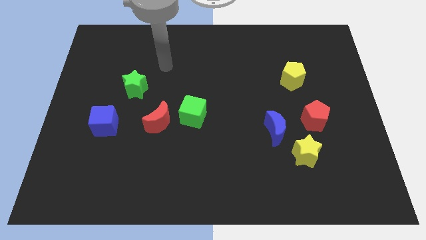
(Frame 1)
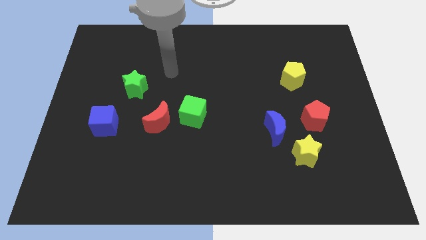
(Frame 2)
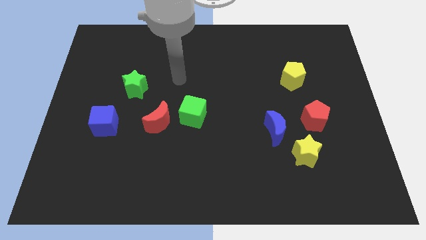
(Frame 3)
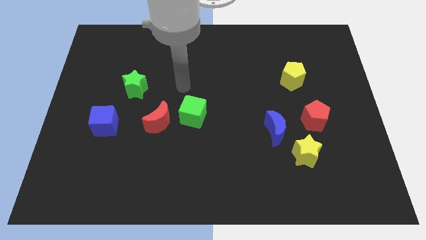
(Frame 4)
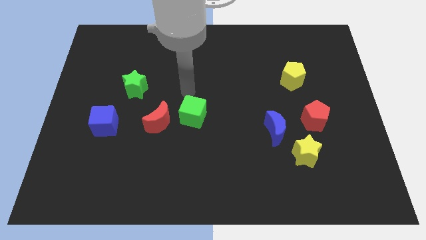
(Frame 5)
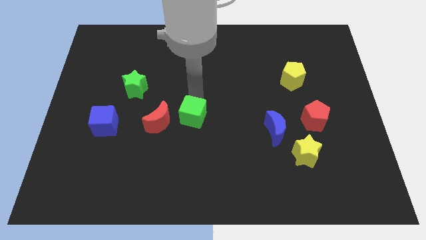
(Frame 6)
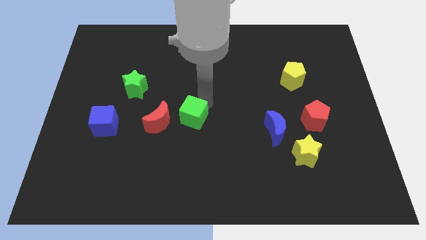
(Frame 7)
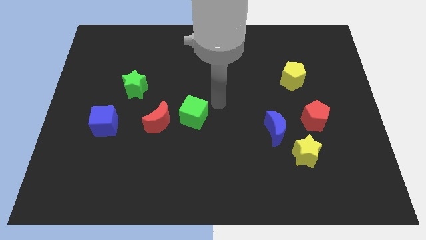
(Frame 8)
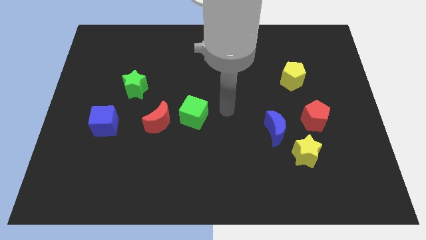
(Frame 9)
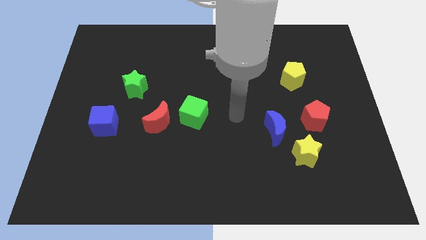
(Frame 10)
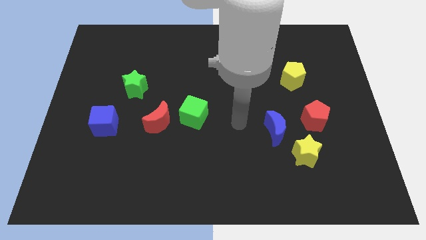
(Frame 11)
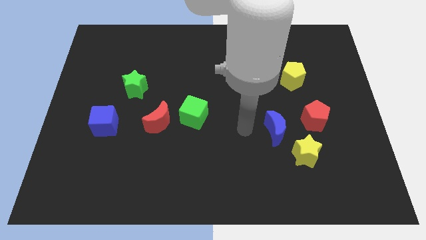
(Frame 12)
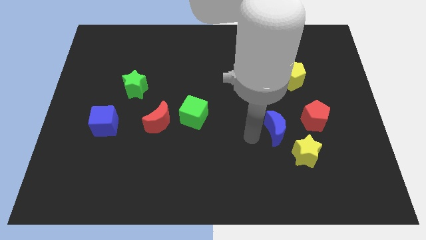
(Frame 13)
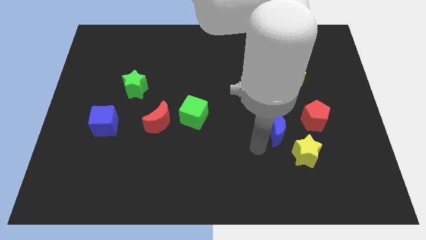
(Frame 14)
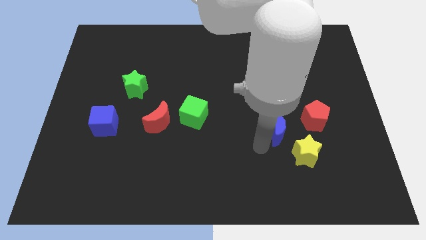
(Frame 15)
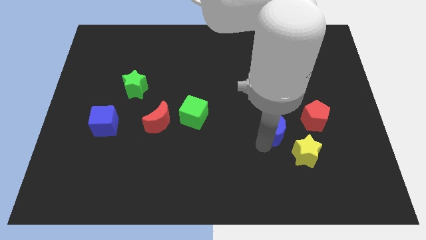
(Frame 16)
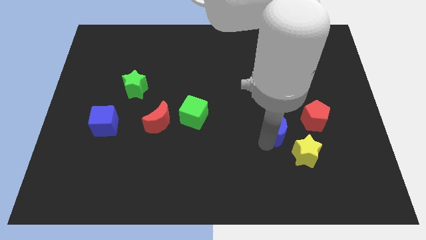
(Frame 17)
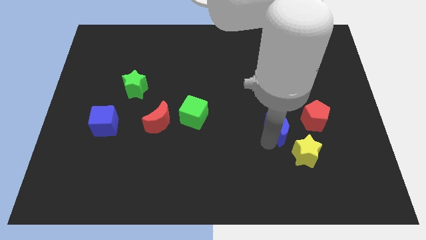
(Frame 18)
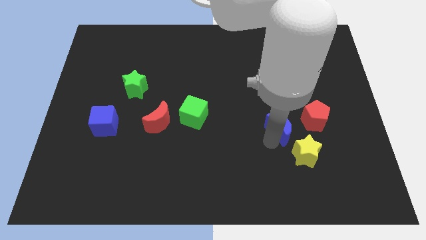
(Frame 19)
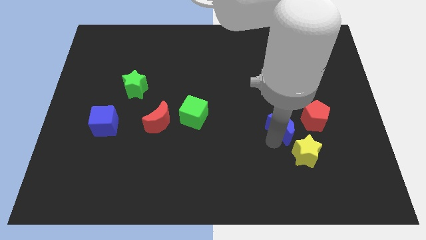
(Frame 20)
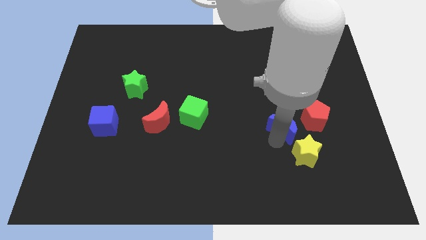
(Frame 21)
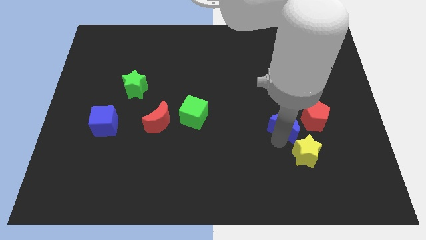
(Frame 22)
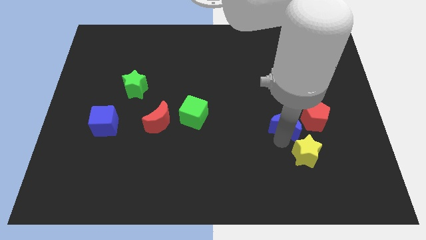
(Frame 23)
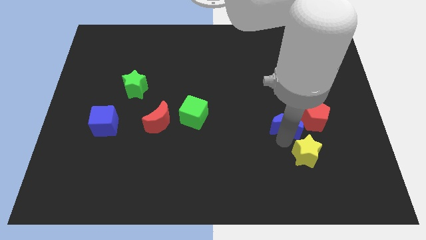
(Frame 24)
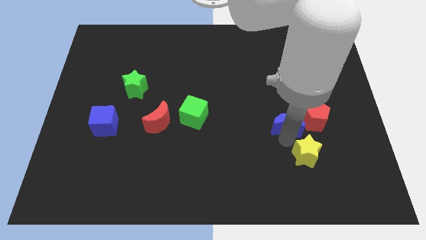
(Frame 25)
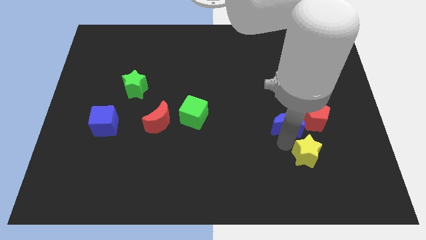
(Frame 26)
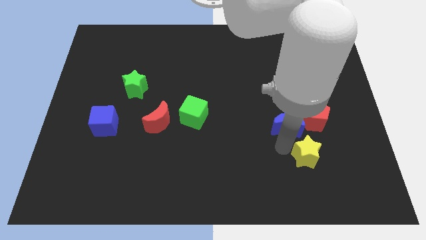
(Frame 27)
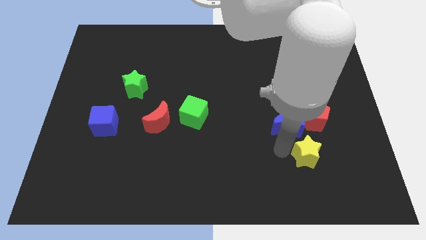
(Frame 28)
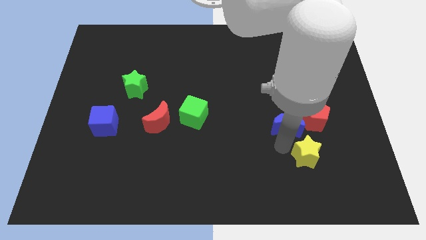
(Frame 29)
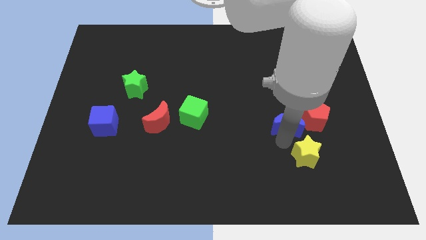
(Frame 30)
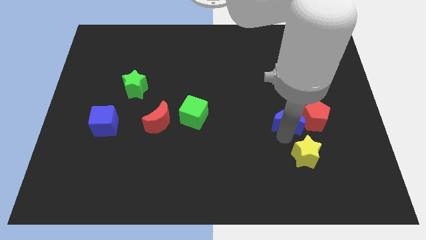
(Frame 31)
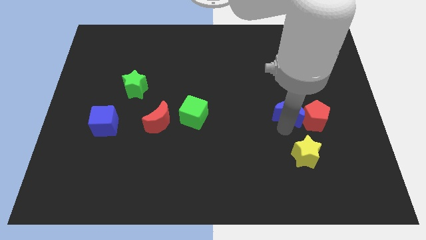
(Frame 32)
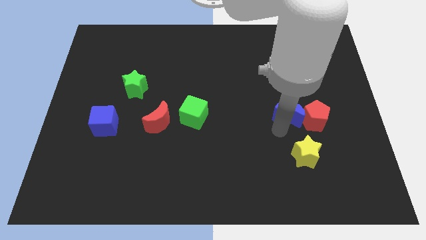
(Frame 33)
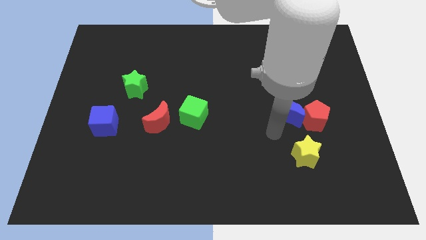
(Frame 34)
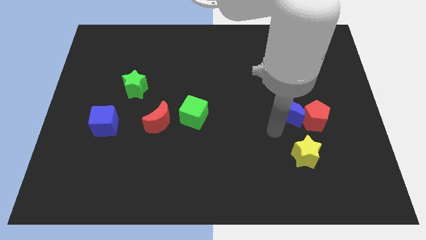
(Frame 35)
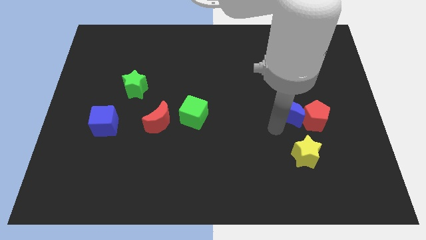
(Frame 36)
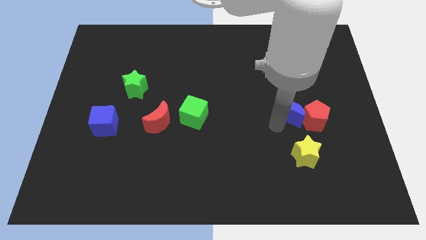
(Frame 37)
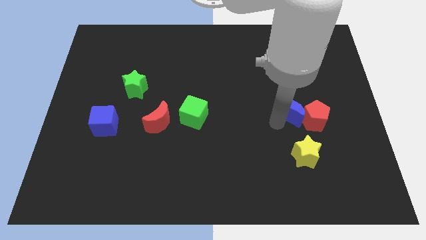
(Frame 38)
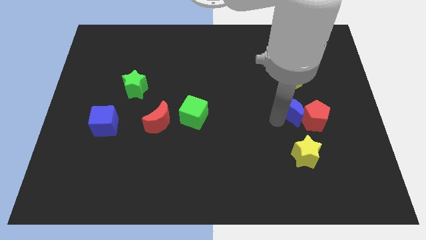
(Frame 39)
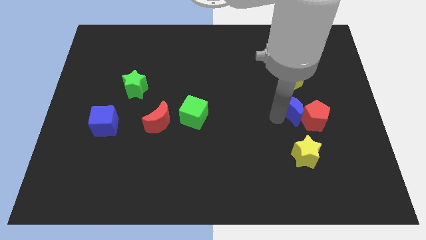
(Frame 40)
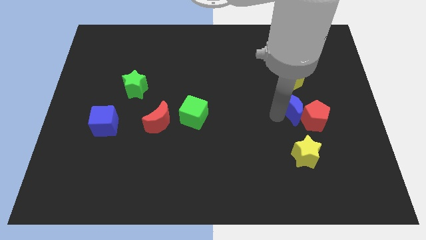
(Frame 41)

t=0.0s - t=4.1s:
push the blue moon up and then right a little bit

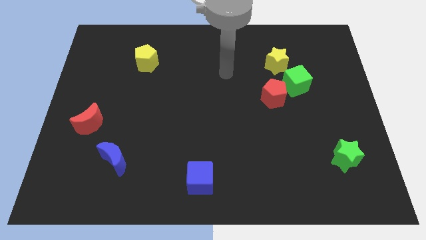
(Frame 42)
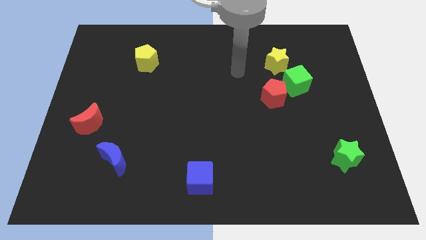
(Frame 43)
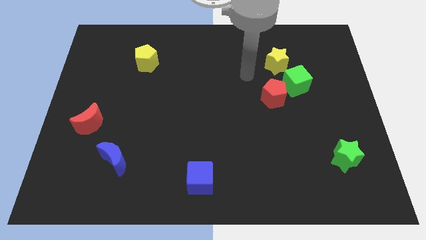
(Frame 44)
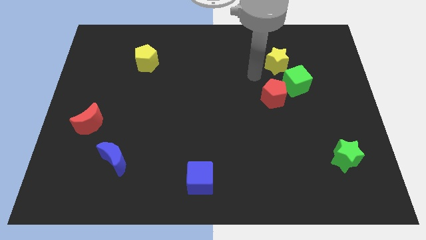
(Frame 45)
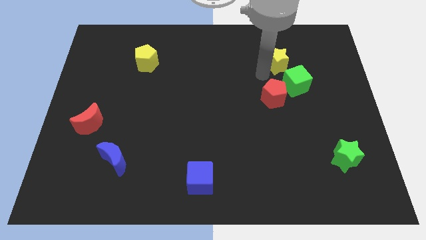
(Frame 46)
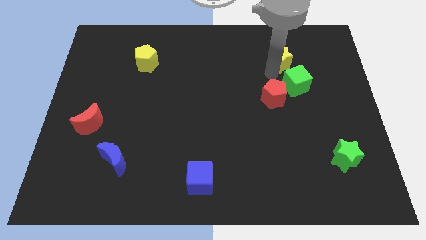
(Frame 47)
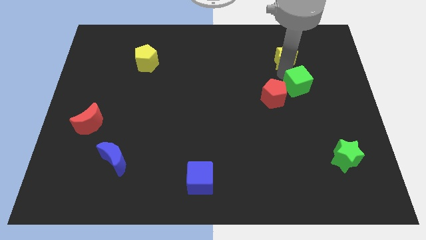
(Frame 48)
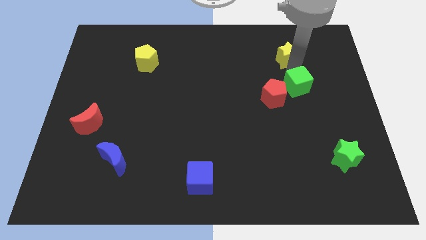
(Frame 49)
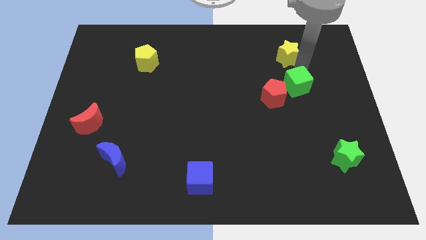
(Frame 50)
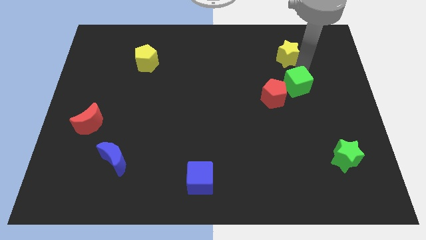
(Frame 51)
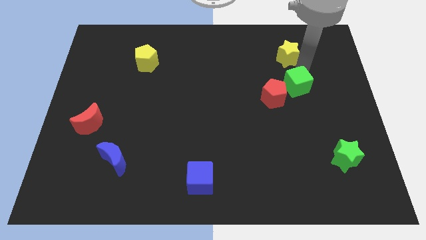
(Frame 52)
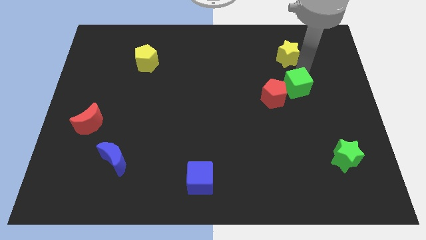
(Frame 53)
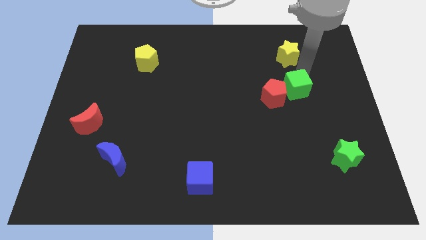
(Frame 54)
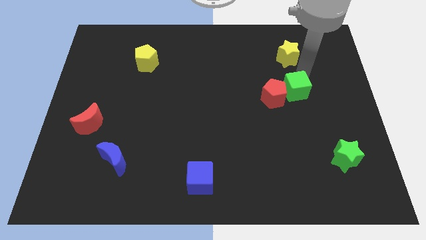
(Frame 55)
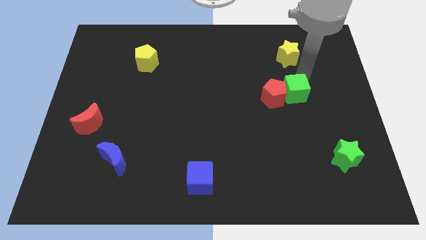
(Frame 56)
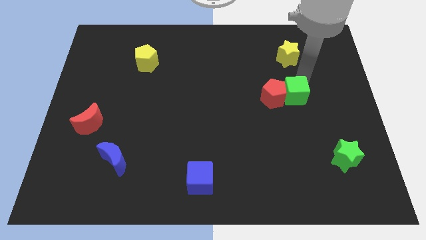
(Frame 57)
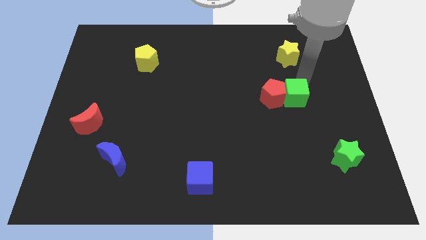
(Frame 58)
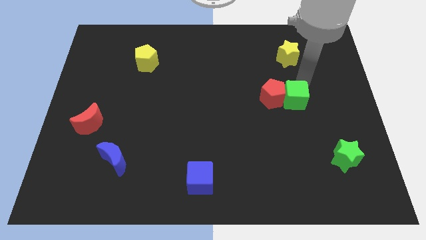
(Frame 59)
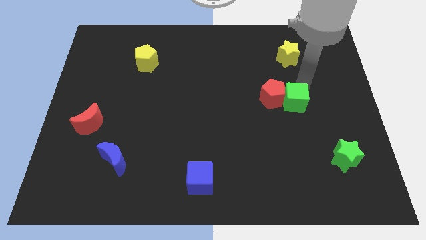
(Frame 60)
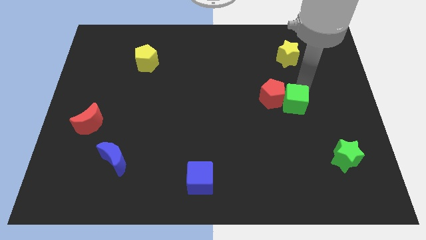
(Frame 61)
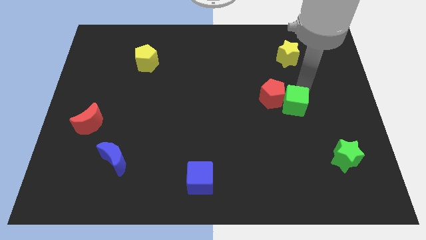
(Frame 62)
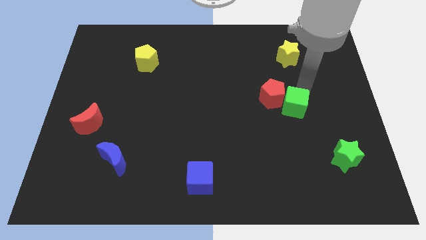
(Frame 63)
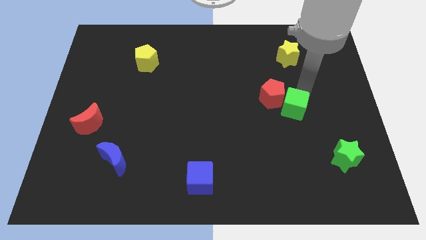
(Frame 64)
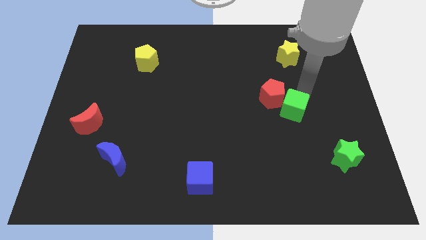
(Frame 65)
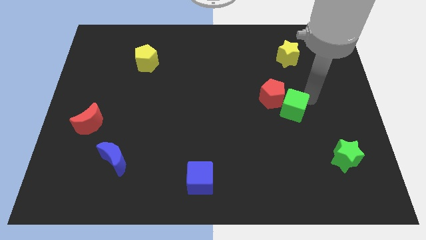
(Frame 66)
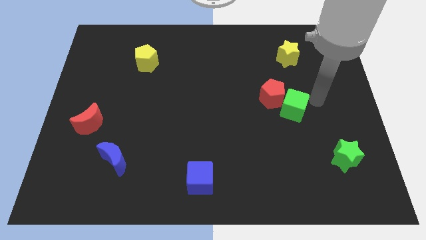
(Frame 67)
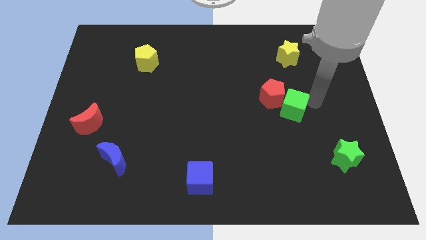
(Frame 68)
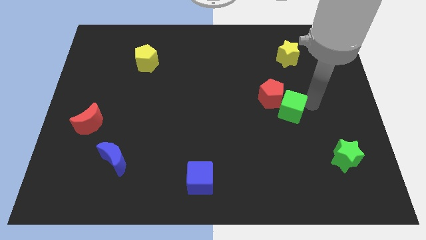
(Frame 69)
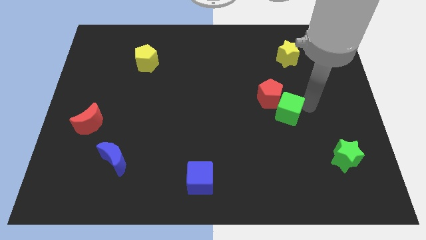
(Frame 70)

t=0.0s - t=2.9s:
slide the green cube diagonally down and to the left a bit

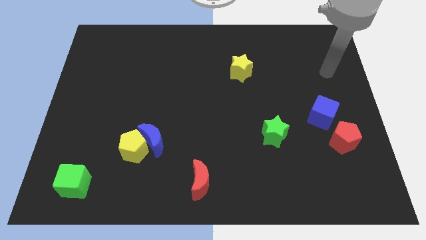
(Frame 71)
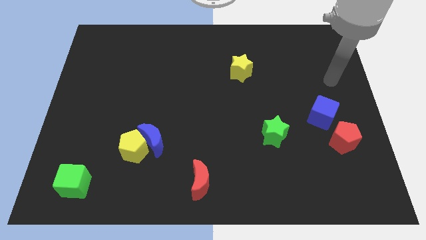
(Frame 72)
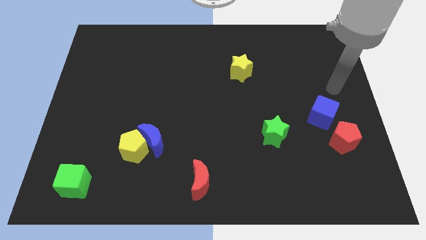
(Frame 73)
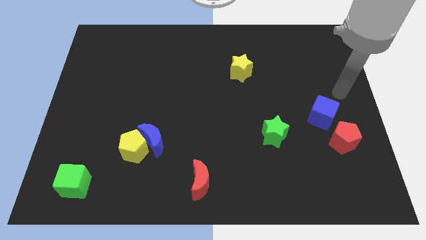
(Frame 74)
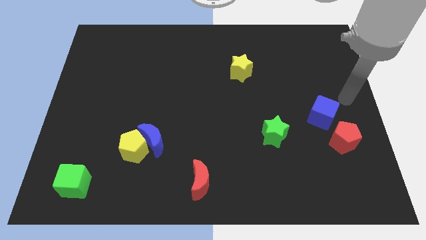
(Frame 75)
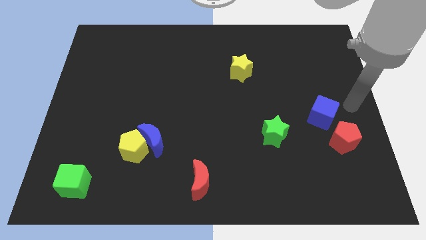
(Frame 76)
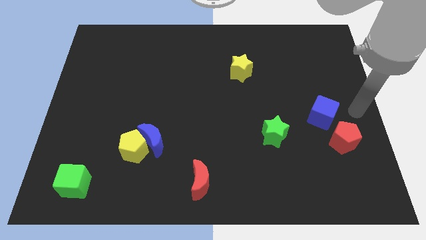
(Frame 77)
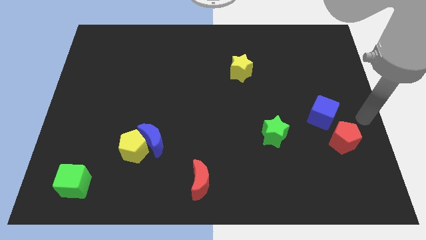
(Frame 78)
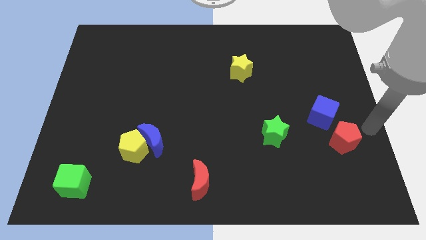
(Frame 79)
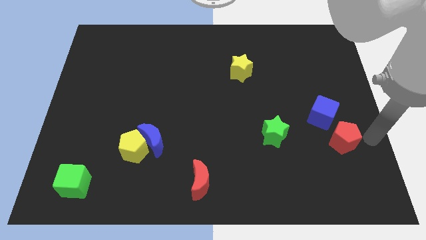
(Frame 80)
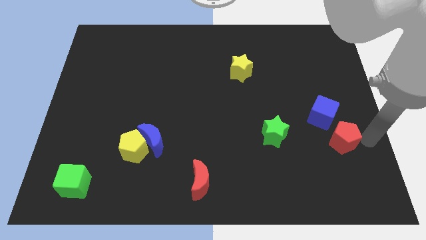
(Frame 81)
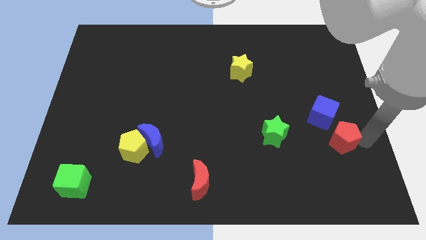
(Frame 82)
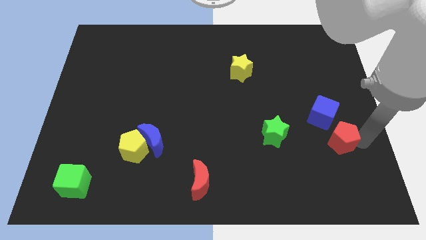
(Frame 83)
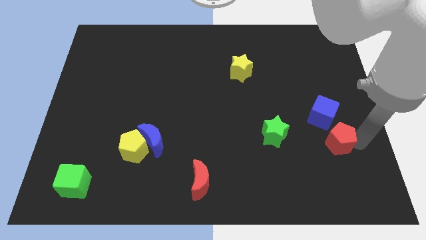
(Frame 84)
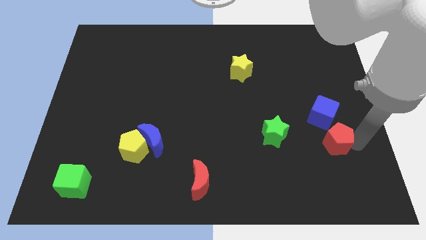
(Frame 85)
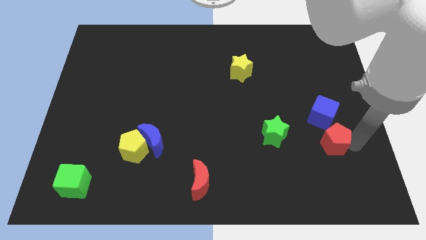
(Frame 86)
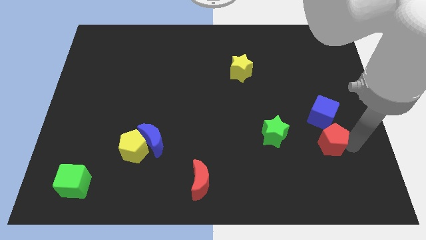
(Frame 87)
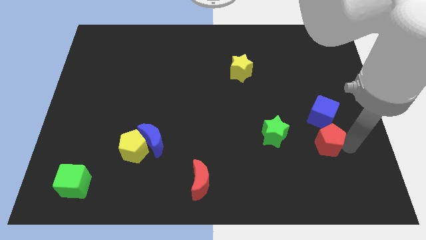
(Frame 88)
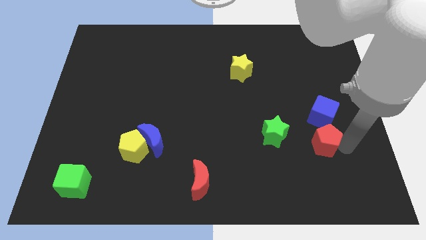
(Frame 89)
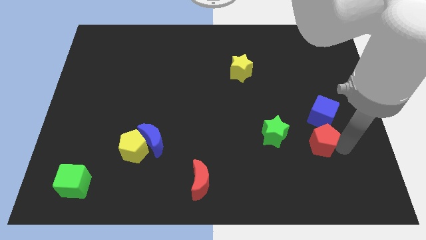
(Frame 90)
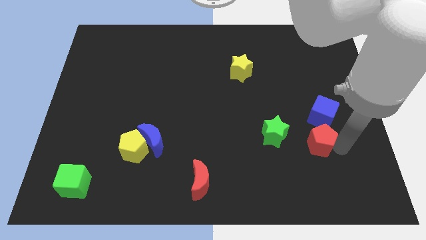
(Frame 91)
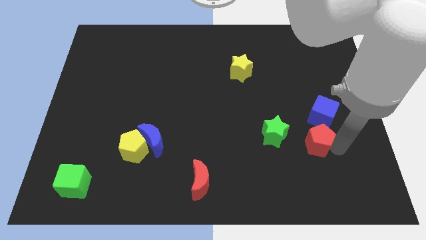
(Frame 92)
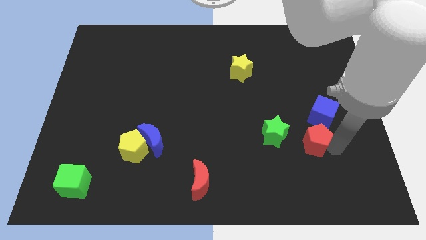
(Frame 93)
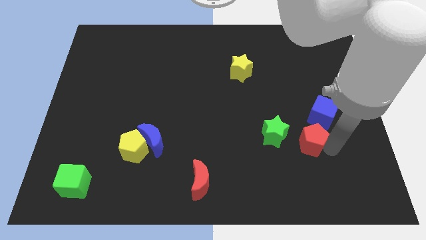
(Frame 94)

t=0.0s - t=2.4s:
slightly push the red pentagon left
